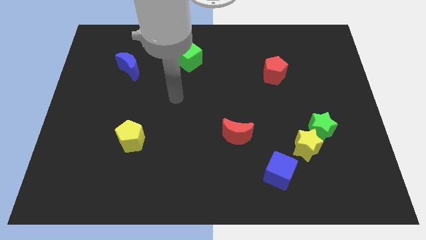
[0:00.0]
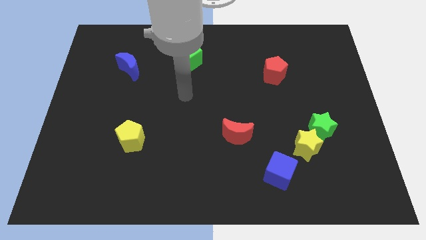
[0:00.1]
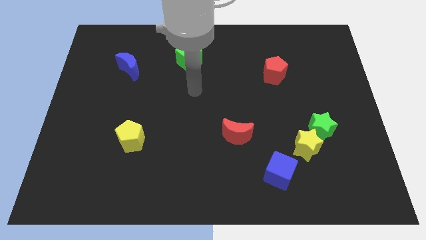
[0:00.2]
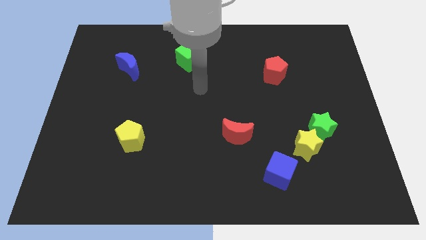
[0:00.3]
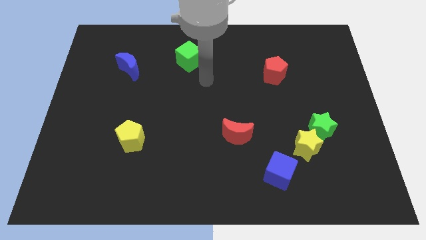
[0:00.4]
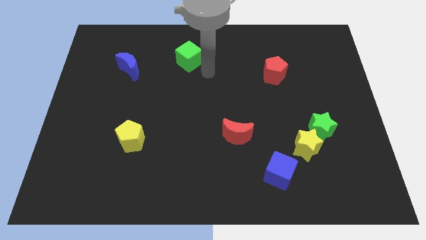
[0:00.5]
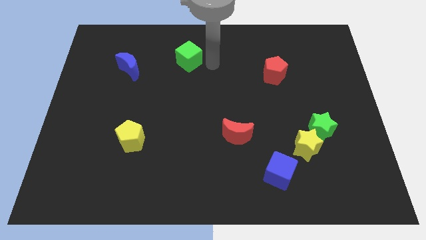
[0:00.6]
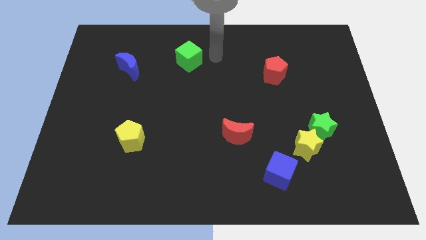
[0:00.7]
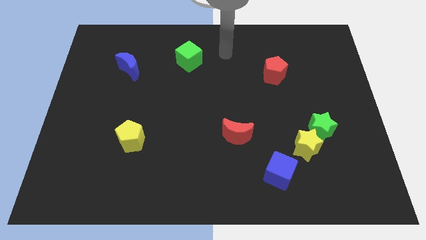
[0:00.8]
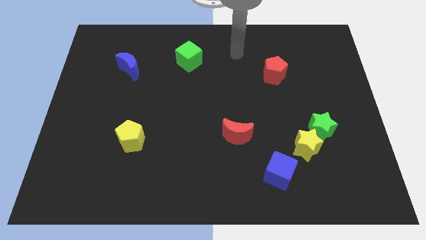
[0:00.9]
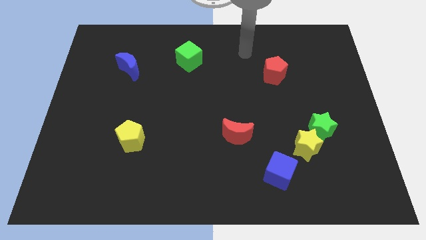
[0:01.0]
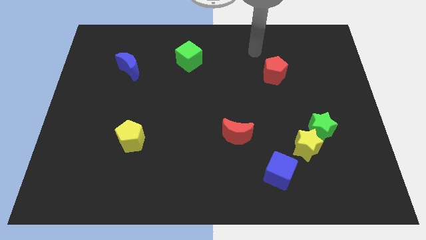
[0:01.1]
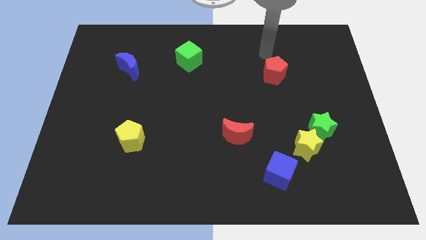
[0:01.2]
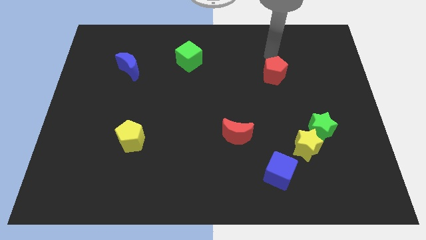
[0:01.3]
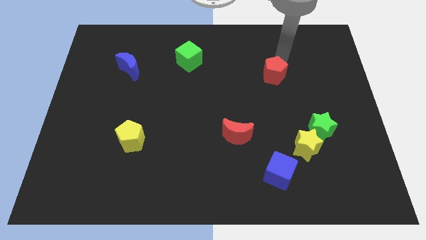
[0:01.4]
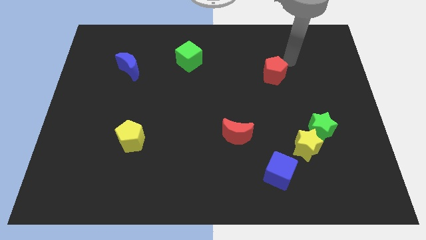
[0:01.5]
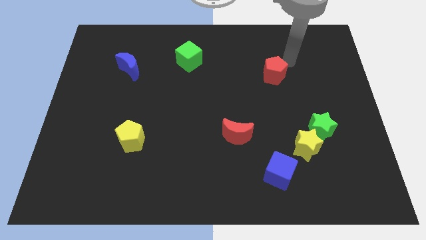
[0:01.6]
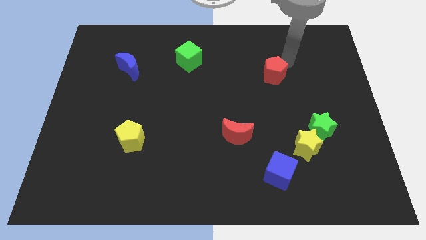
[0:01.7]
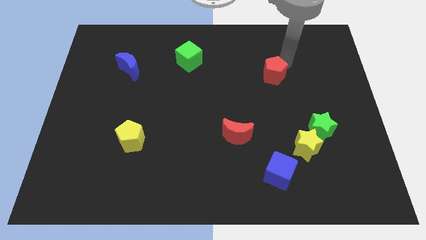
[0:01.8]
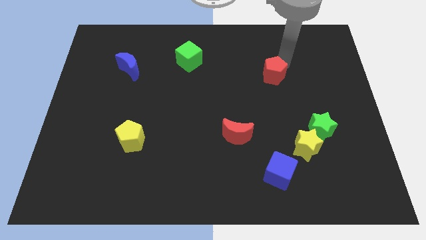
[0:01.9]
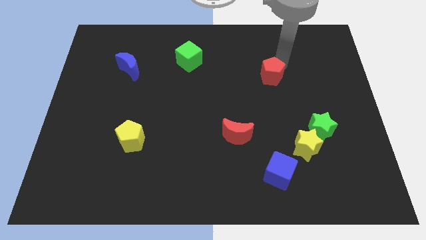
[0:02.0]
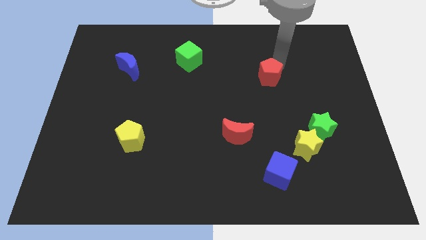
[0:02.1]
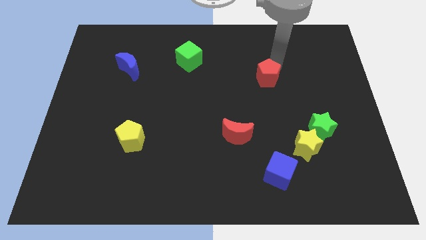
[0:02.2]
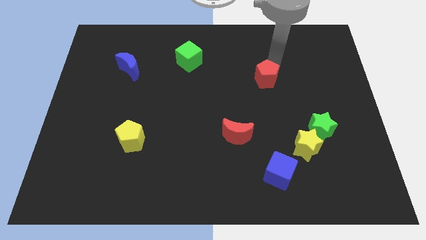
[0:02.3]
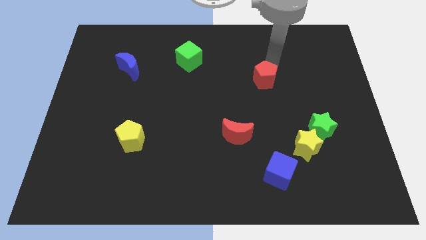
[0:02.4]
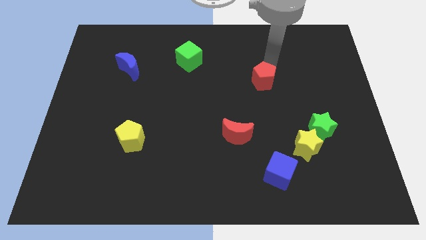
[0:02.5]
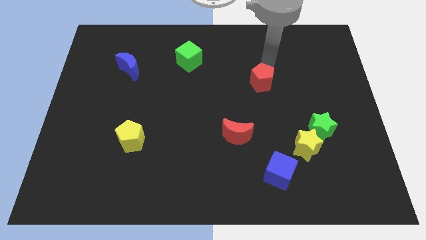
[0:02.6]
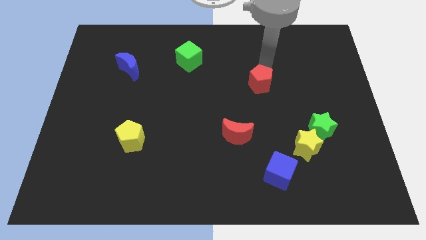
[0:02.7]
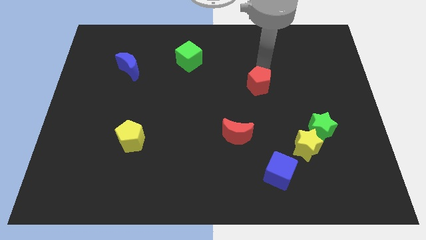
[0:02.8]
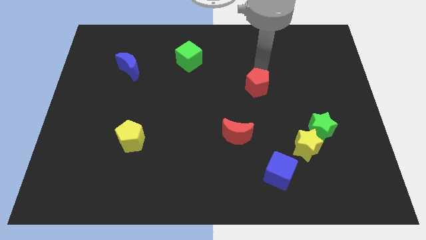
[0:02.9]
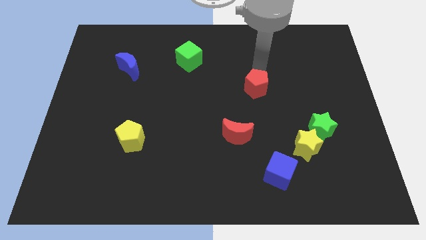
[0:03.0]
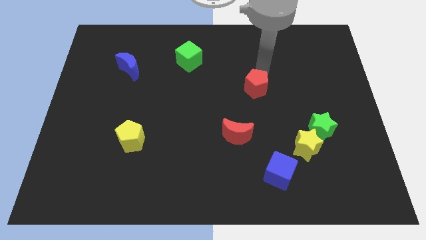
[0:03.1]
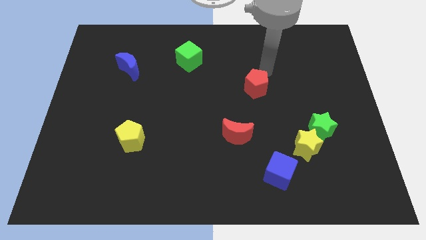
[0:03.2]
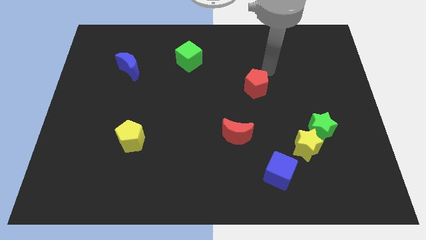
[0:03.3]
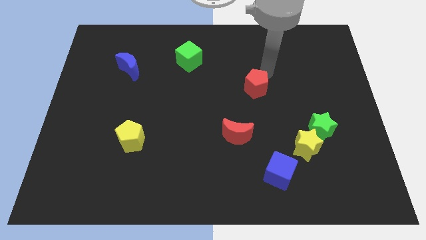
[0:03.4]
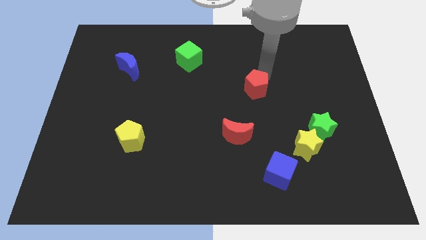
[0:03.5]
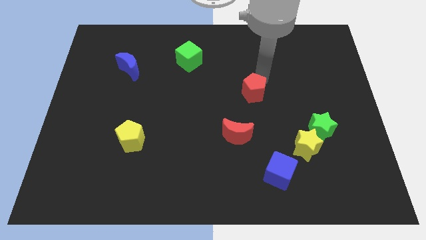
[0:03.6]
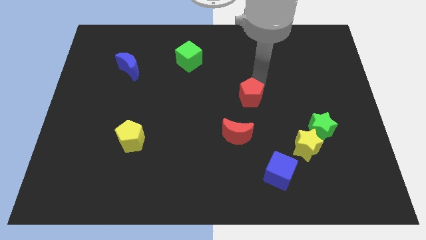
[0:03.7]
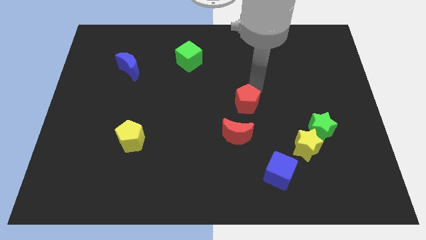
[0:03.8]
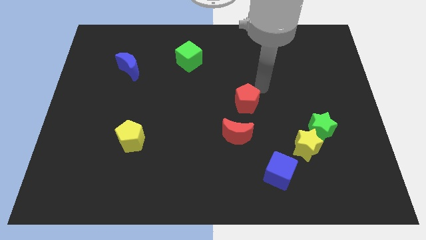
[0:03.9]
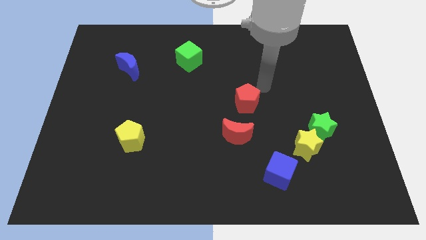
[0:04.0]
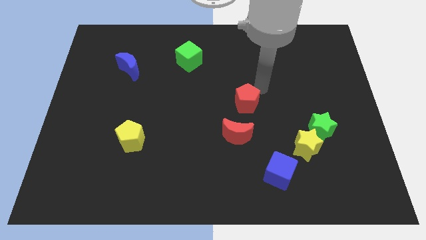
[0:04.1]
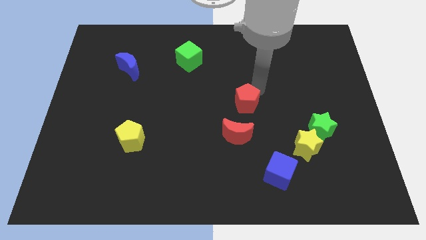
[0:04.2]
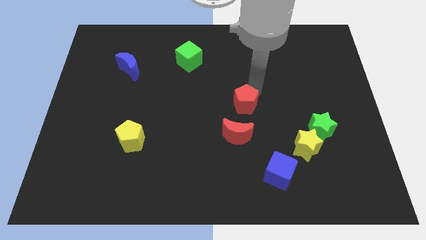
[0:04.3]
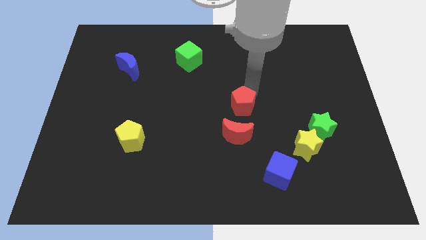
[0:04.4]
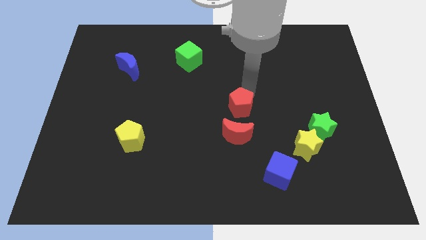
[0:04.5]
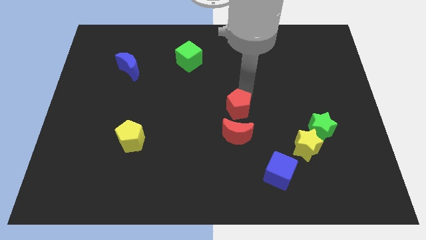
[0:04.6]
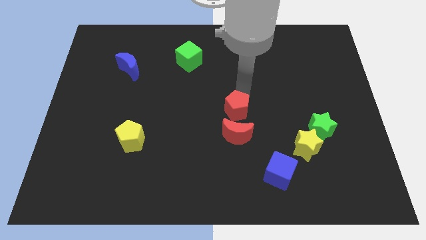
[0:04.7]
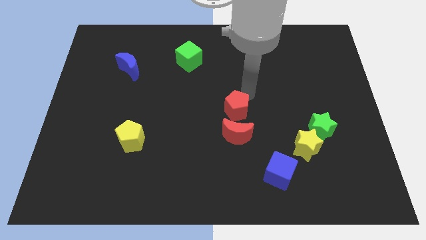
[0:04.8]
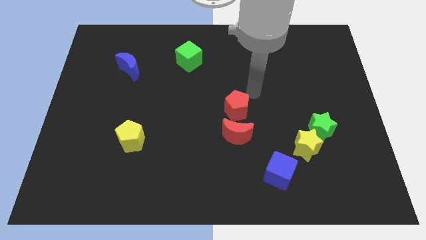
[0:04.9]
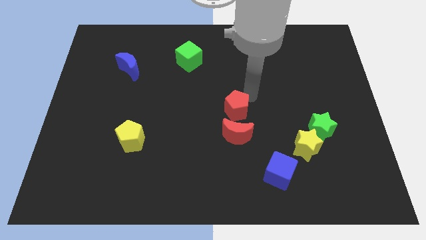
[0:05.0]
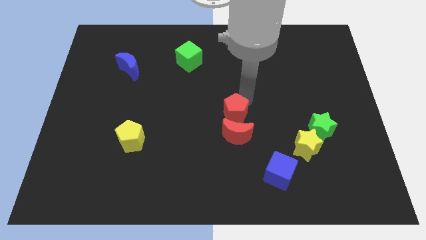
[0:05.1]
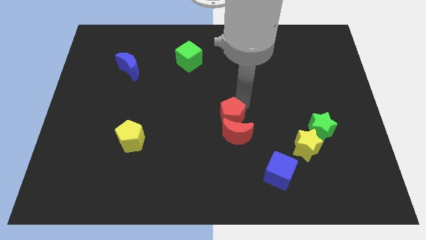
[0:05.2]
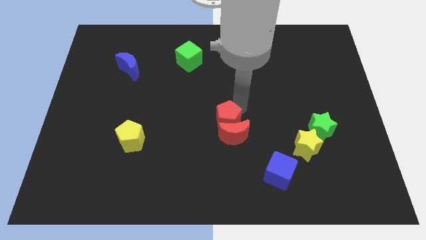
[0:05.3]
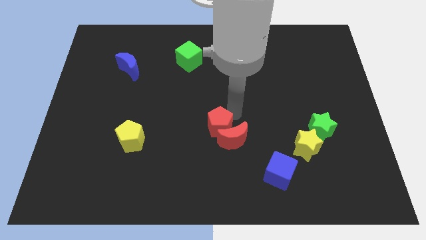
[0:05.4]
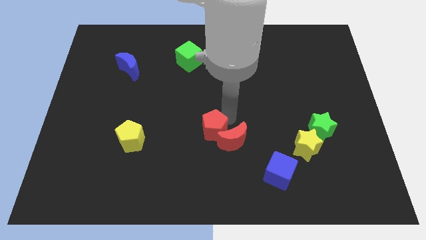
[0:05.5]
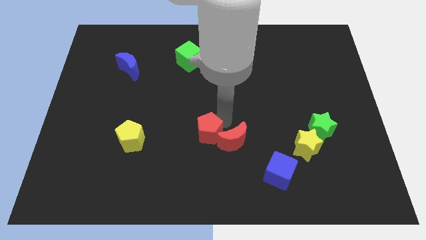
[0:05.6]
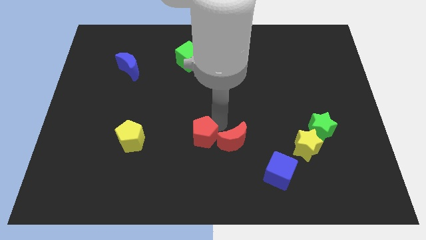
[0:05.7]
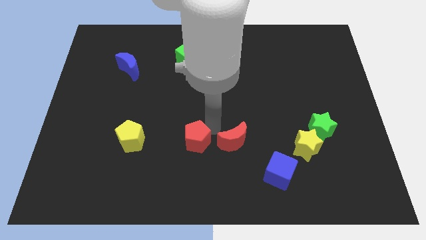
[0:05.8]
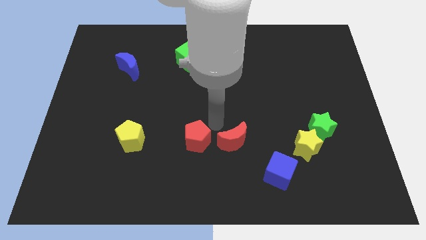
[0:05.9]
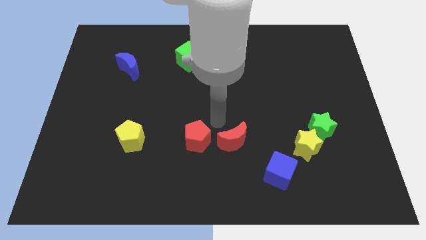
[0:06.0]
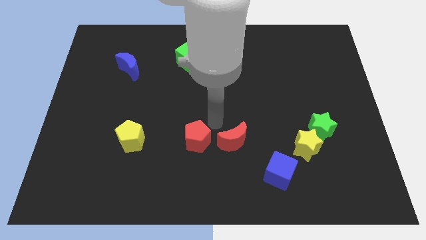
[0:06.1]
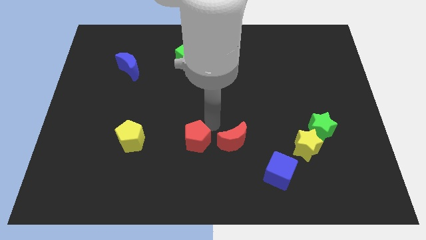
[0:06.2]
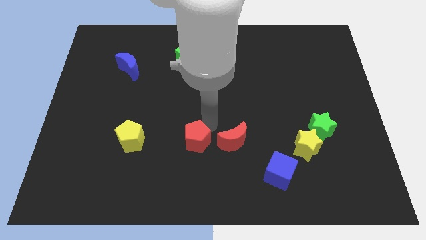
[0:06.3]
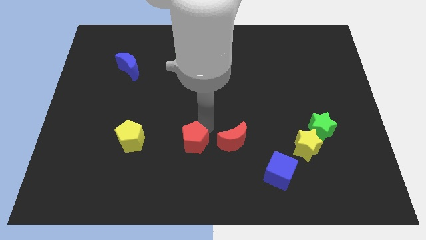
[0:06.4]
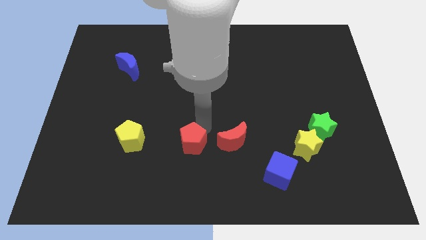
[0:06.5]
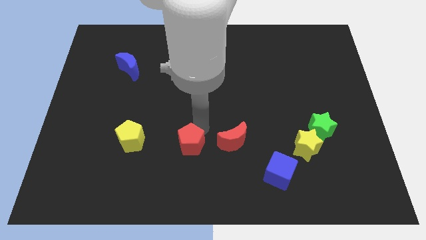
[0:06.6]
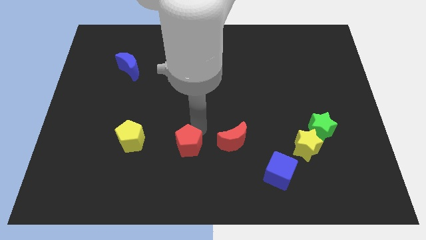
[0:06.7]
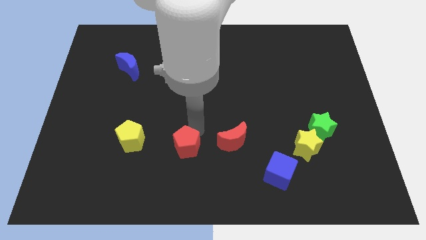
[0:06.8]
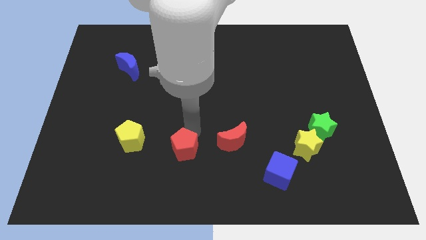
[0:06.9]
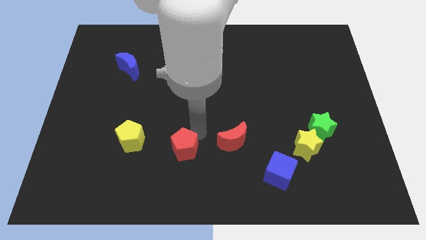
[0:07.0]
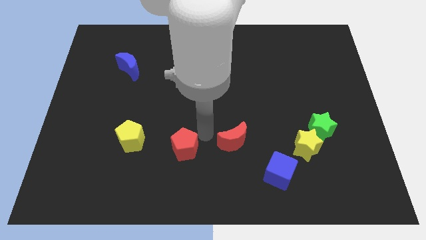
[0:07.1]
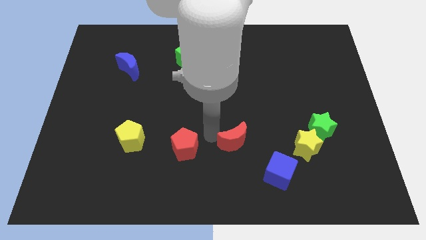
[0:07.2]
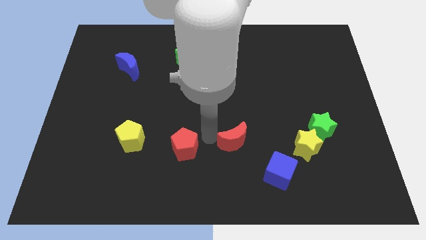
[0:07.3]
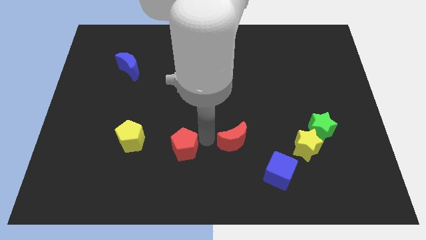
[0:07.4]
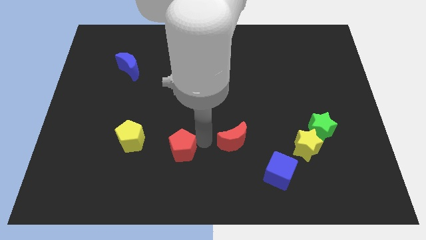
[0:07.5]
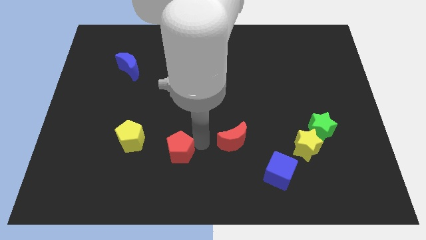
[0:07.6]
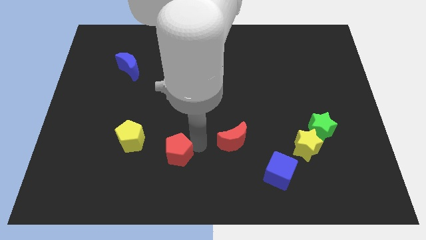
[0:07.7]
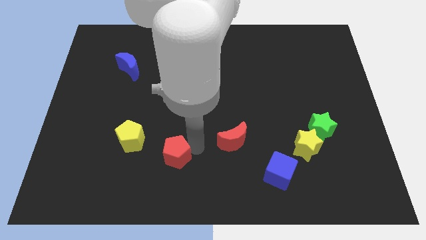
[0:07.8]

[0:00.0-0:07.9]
move the red pentagon to the bottom right of the yellow pentagon

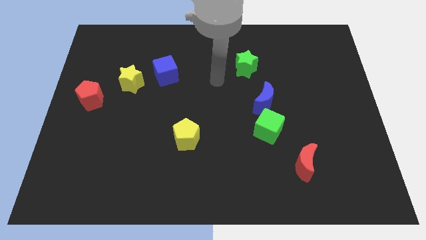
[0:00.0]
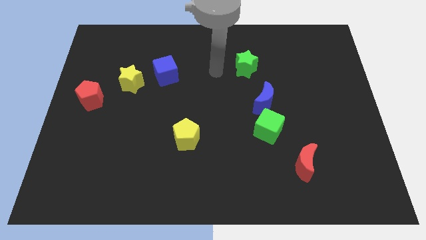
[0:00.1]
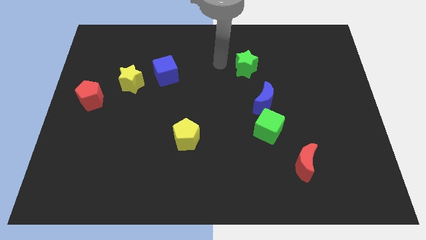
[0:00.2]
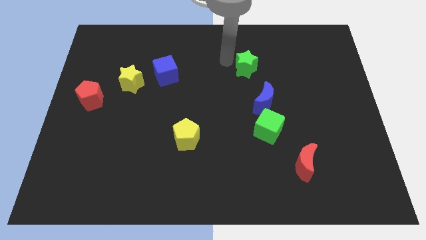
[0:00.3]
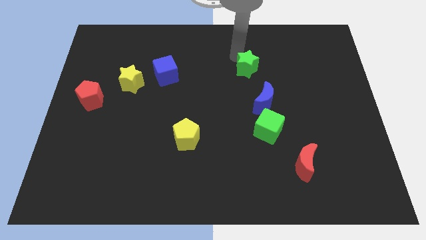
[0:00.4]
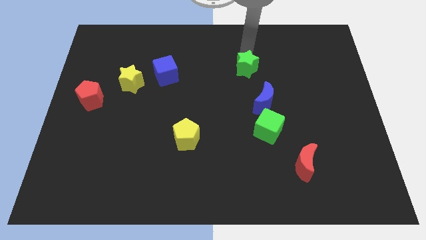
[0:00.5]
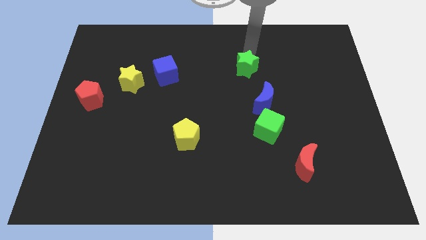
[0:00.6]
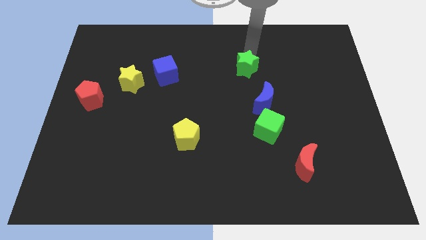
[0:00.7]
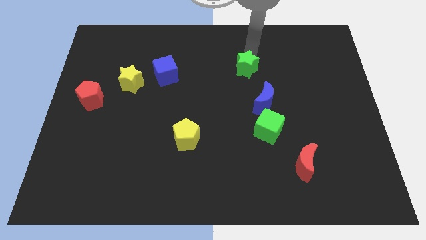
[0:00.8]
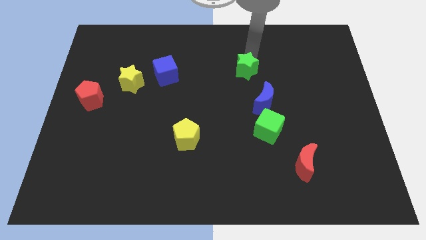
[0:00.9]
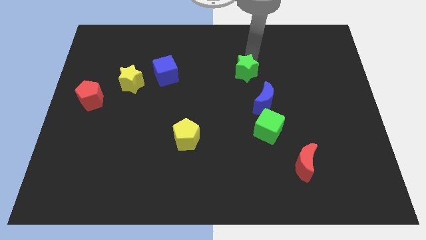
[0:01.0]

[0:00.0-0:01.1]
slide the green star to the top left side of the blue moon
